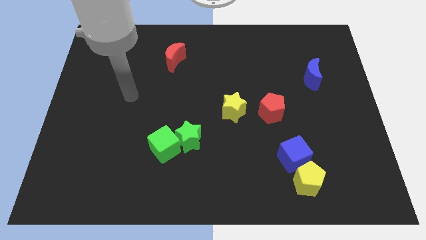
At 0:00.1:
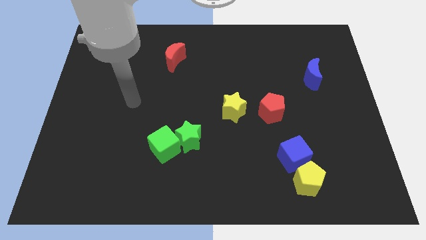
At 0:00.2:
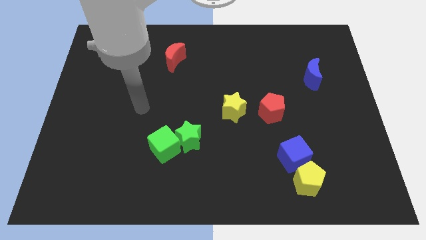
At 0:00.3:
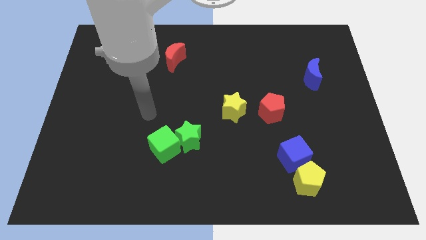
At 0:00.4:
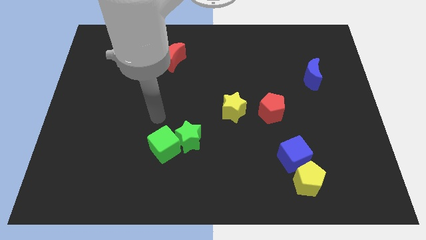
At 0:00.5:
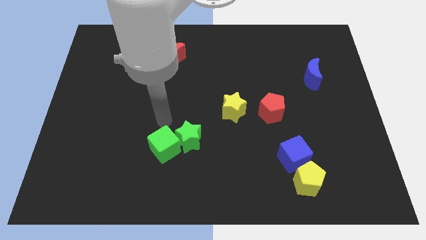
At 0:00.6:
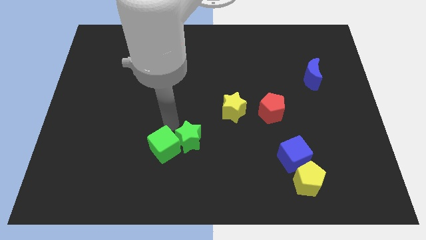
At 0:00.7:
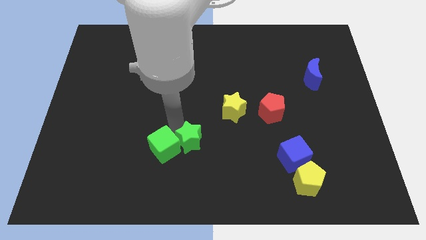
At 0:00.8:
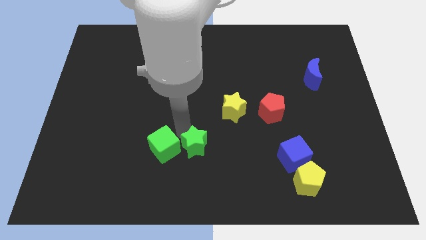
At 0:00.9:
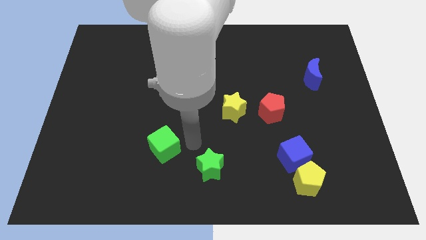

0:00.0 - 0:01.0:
separate the green cube from the green star

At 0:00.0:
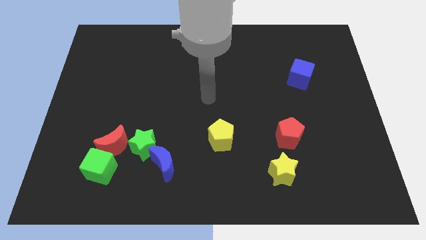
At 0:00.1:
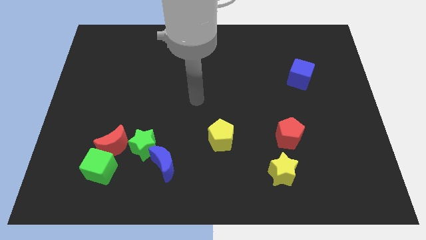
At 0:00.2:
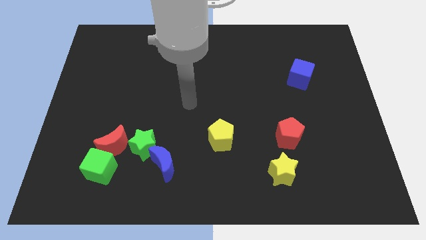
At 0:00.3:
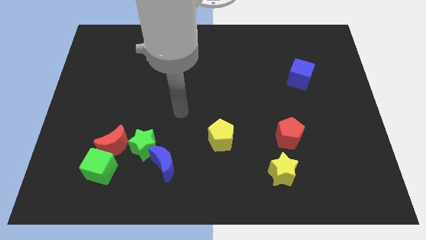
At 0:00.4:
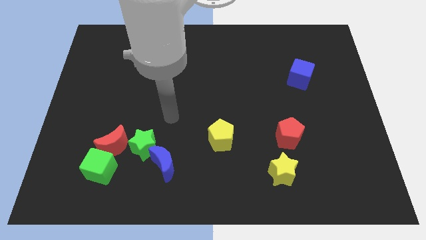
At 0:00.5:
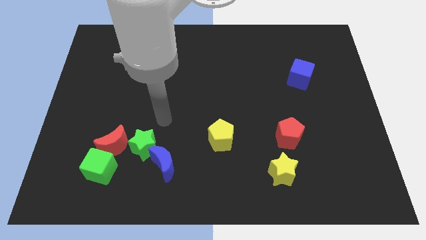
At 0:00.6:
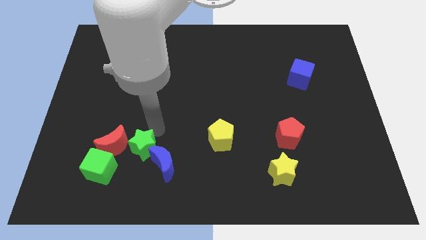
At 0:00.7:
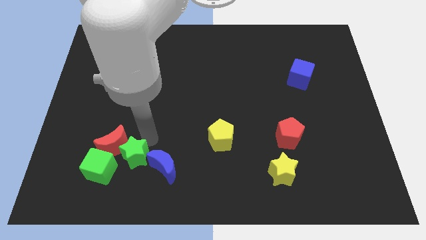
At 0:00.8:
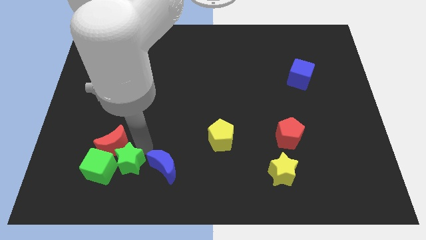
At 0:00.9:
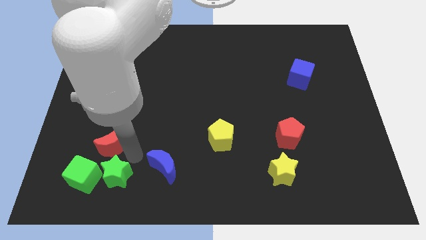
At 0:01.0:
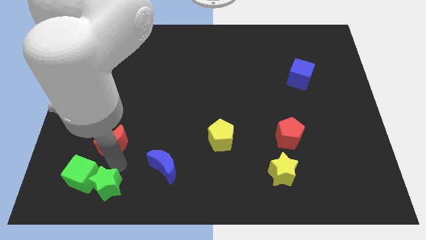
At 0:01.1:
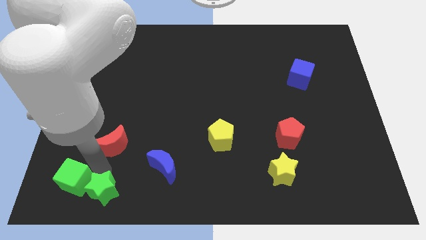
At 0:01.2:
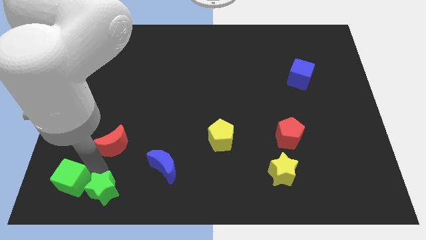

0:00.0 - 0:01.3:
separate the red moon from the green cube and green star

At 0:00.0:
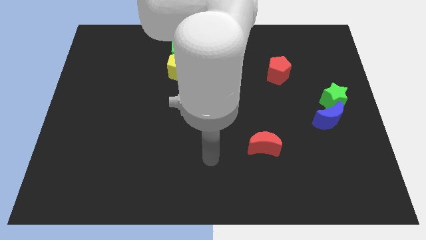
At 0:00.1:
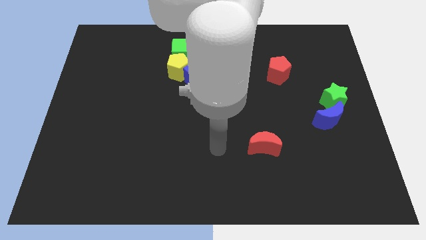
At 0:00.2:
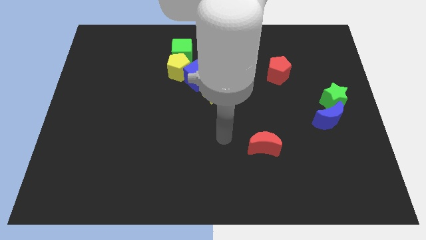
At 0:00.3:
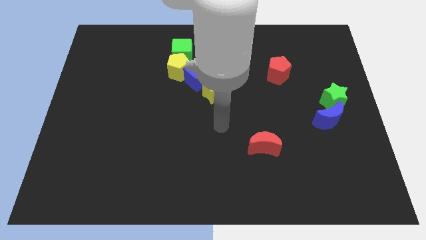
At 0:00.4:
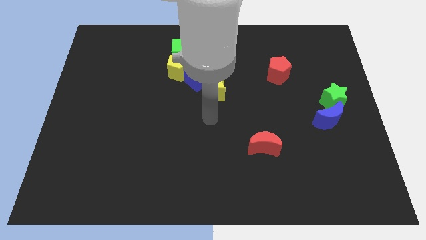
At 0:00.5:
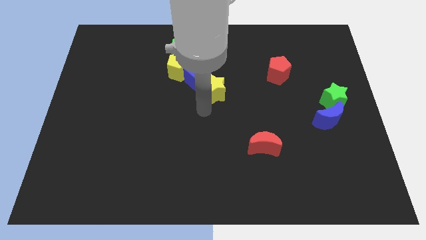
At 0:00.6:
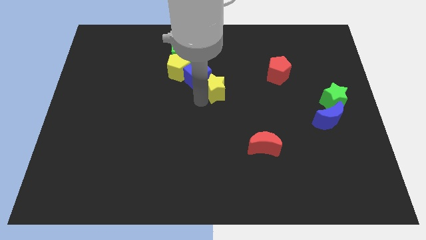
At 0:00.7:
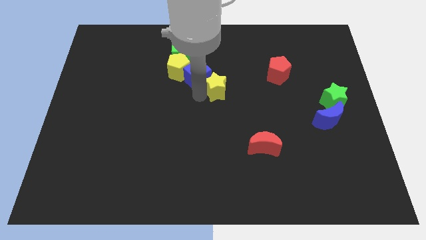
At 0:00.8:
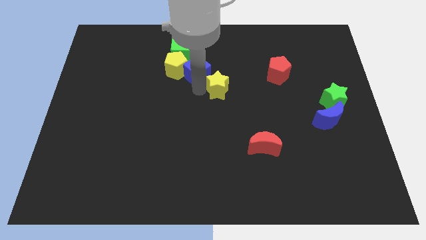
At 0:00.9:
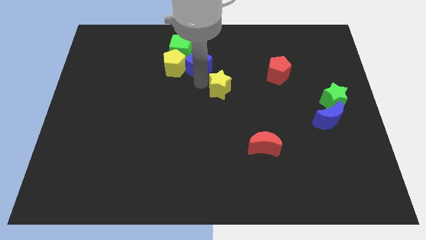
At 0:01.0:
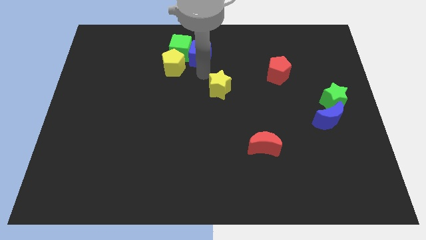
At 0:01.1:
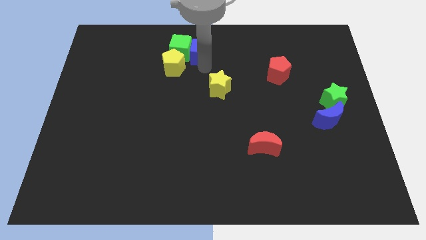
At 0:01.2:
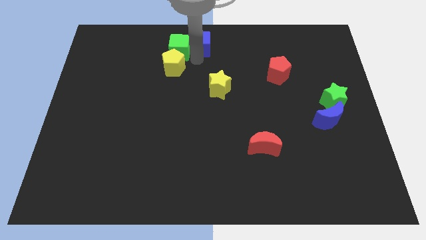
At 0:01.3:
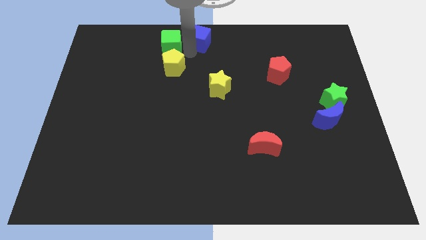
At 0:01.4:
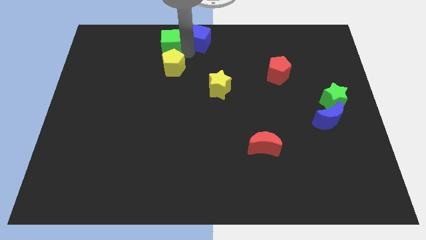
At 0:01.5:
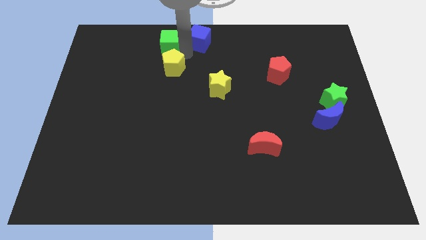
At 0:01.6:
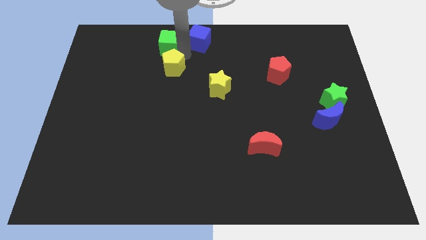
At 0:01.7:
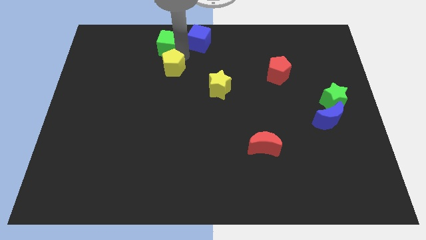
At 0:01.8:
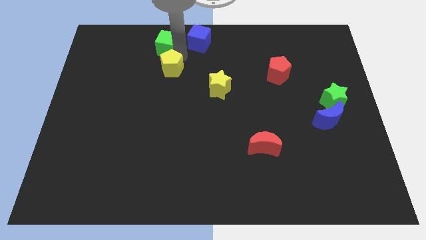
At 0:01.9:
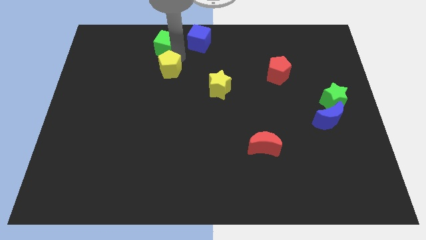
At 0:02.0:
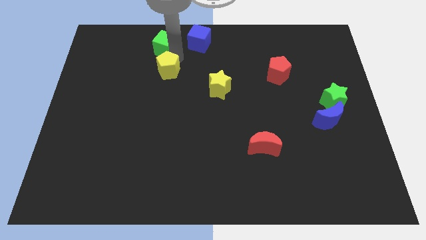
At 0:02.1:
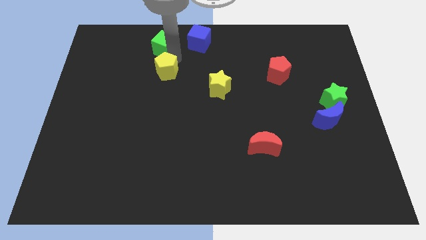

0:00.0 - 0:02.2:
pull the yellow pentagon apart from the green cube and blue cube

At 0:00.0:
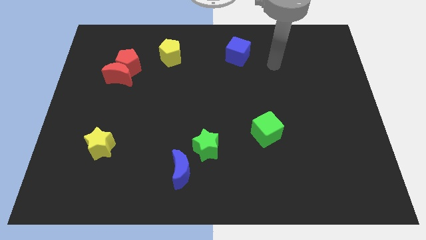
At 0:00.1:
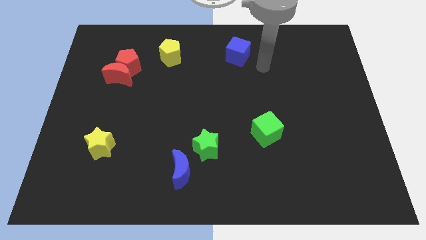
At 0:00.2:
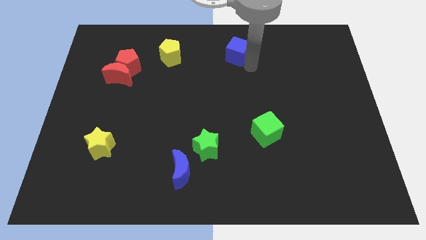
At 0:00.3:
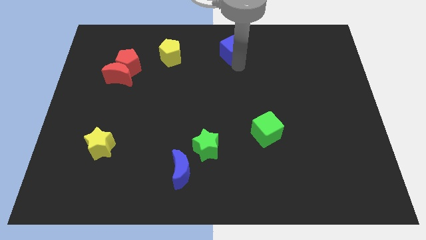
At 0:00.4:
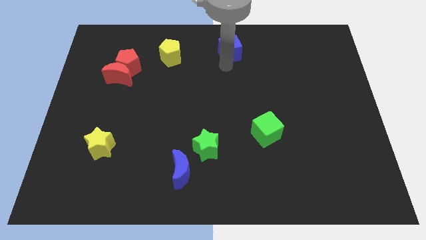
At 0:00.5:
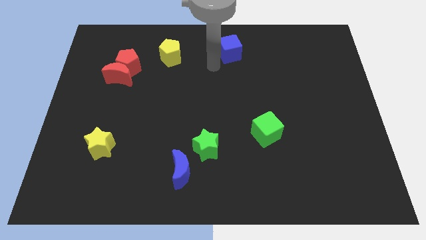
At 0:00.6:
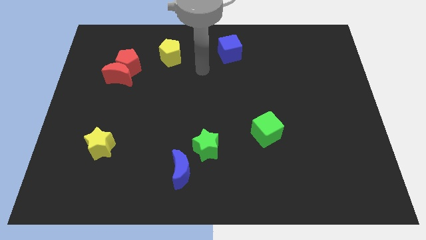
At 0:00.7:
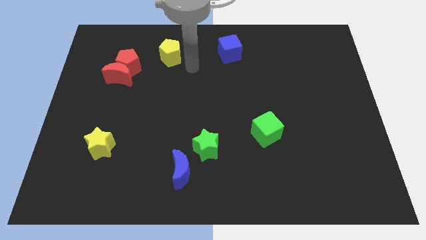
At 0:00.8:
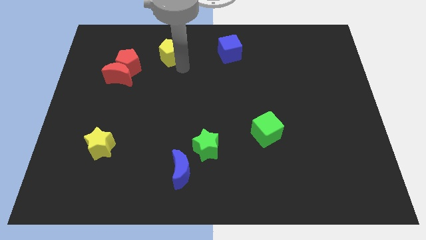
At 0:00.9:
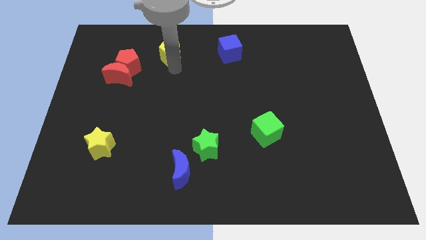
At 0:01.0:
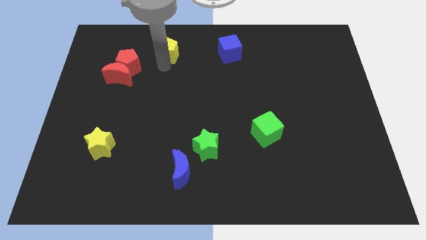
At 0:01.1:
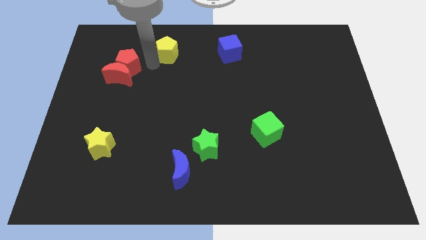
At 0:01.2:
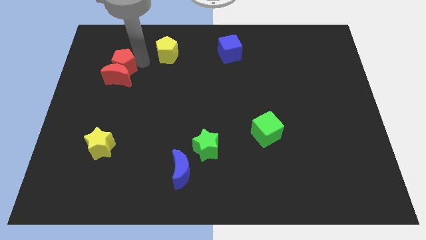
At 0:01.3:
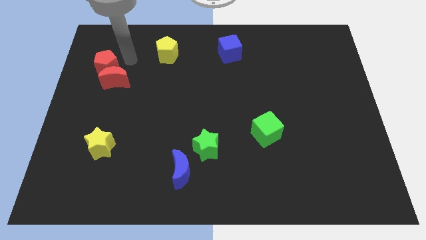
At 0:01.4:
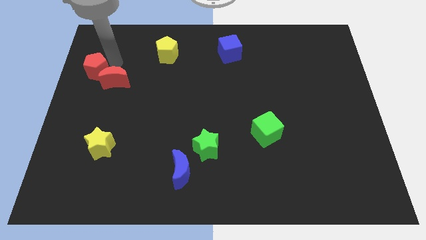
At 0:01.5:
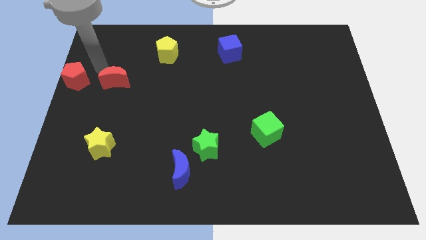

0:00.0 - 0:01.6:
separate the red moon from the red pentagon

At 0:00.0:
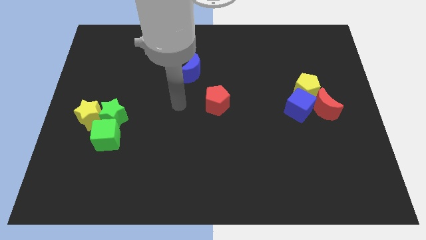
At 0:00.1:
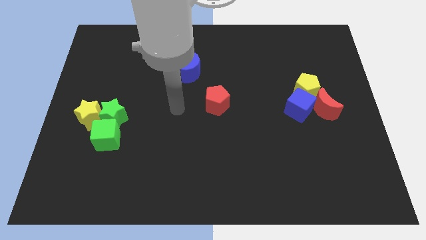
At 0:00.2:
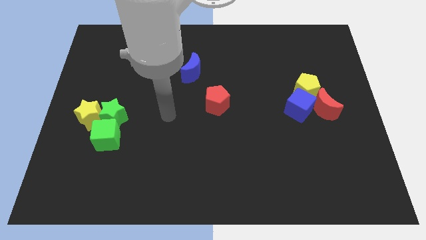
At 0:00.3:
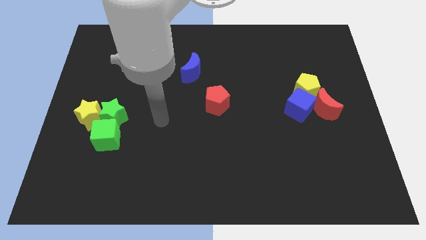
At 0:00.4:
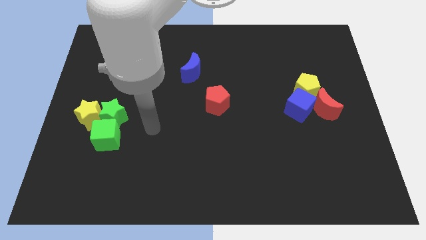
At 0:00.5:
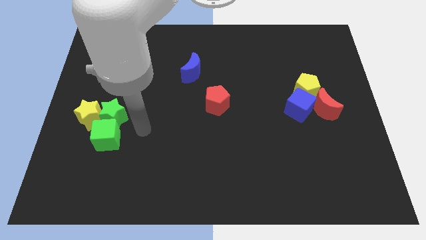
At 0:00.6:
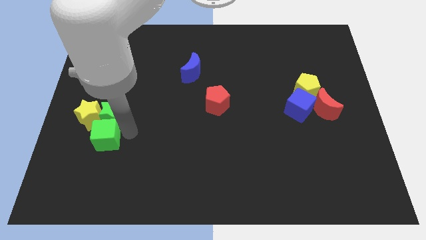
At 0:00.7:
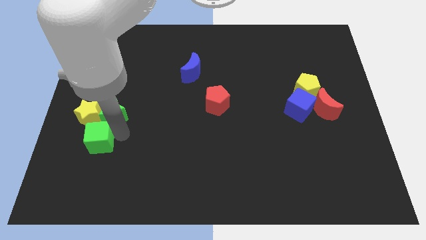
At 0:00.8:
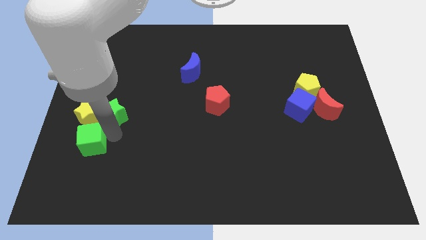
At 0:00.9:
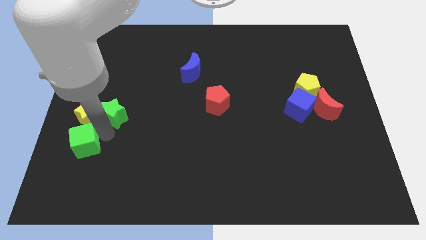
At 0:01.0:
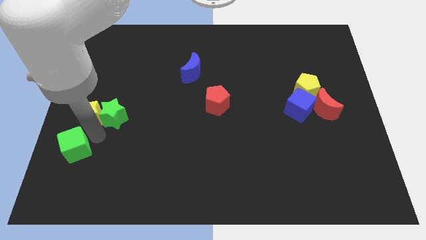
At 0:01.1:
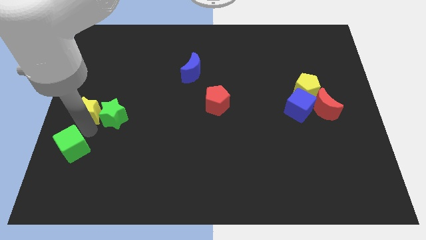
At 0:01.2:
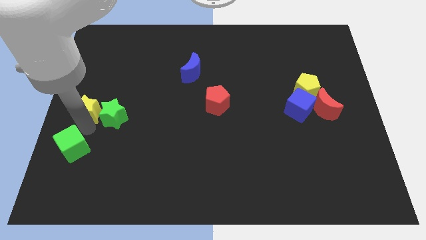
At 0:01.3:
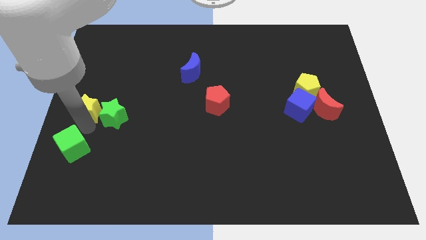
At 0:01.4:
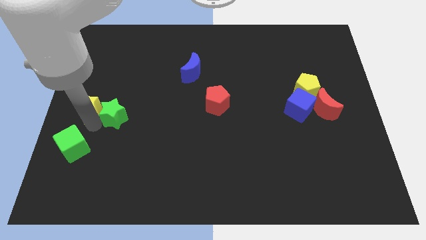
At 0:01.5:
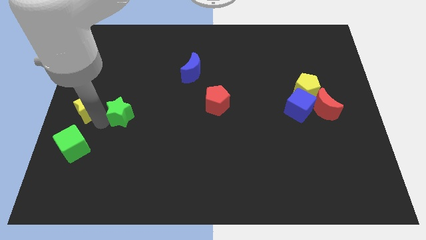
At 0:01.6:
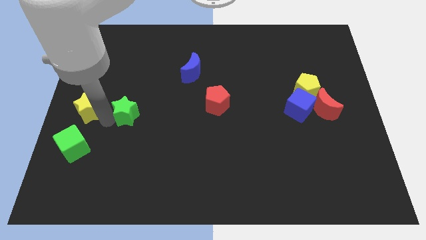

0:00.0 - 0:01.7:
move the green star away from the green cube and yellow star

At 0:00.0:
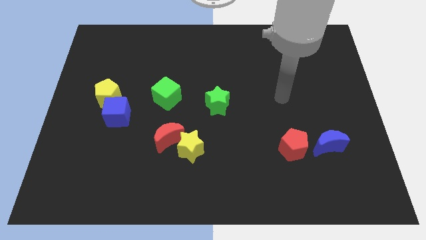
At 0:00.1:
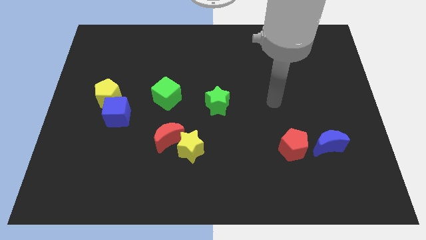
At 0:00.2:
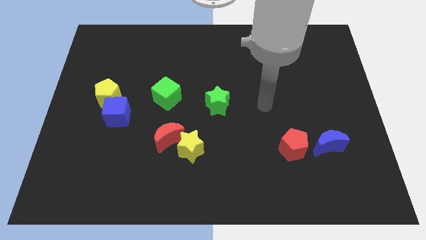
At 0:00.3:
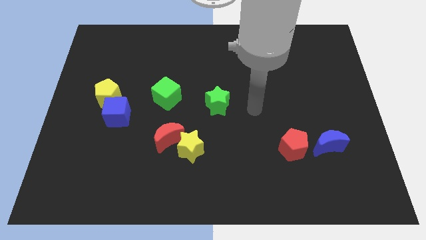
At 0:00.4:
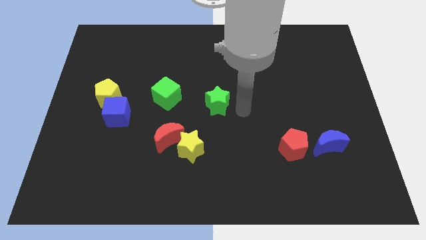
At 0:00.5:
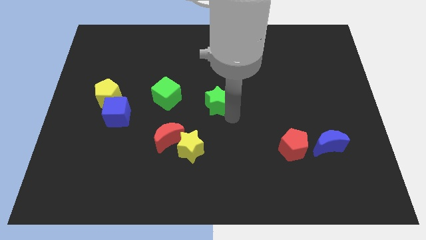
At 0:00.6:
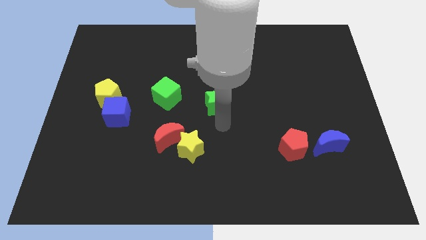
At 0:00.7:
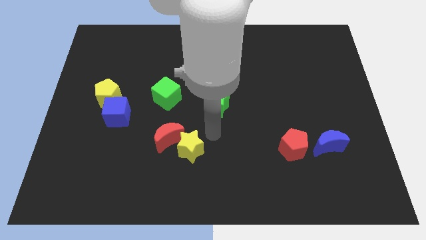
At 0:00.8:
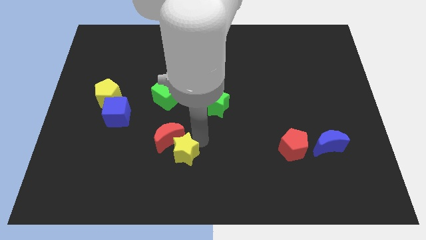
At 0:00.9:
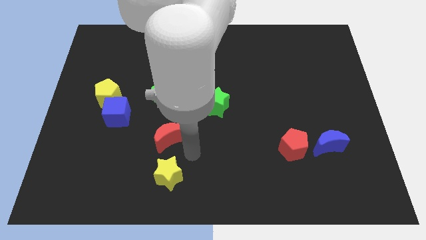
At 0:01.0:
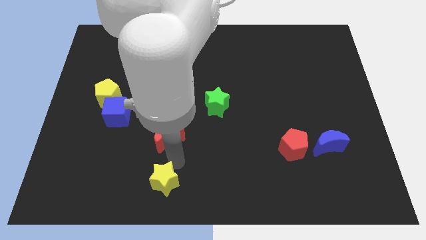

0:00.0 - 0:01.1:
separate the red moon from the yellow star

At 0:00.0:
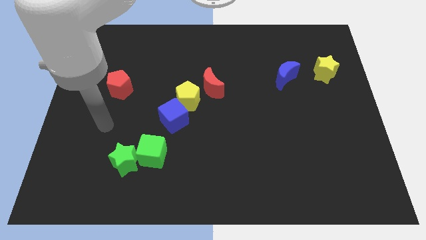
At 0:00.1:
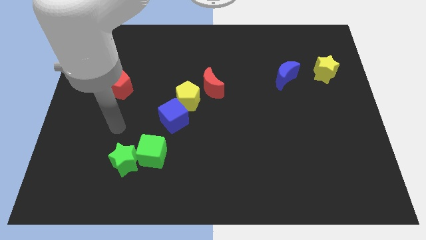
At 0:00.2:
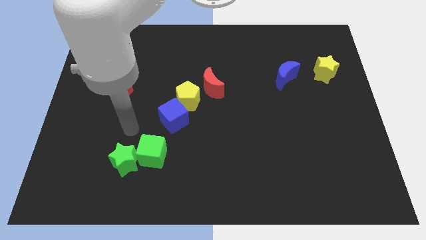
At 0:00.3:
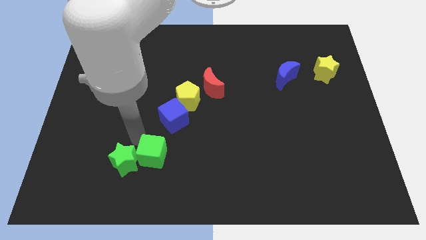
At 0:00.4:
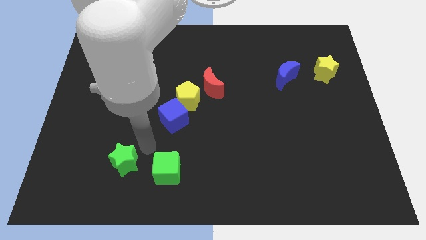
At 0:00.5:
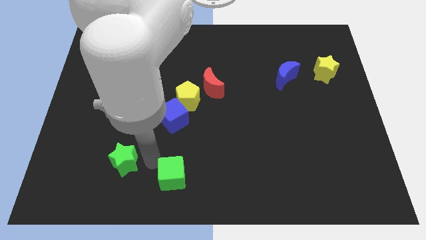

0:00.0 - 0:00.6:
separate the green star from the green cube
